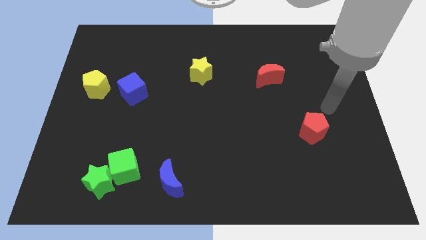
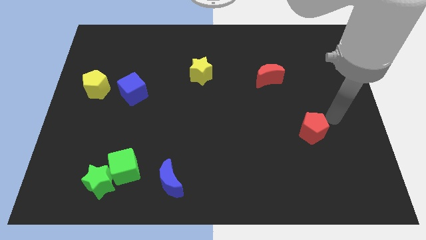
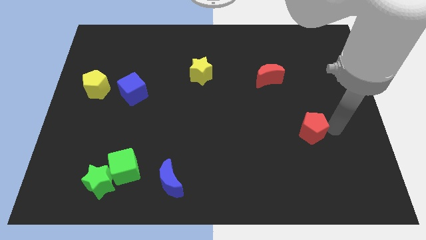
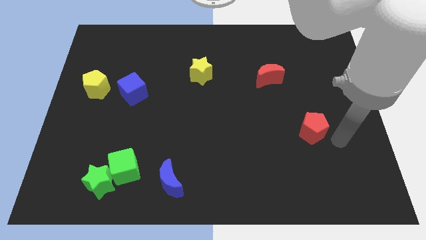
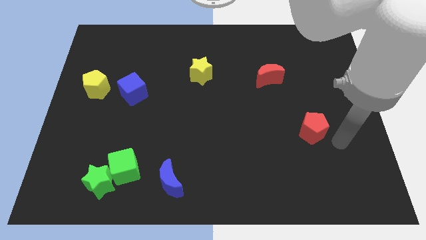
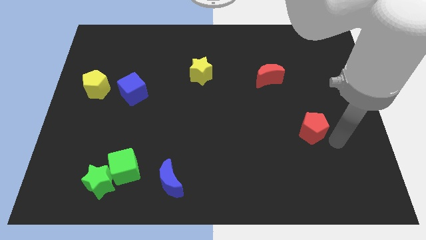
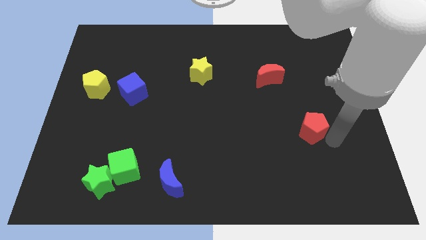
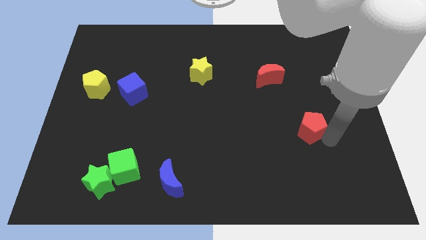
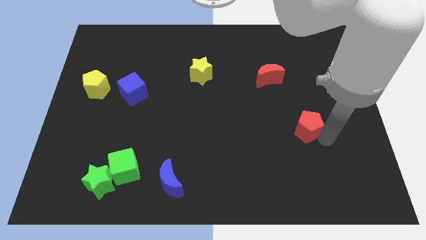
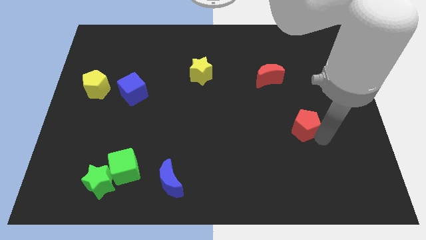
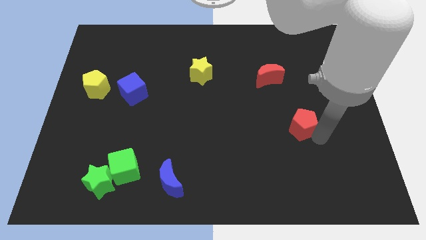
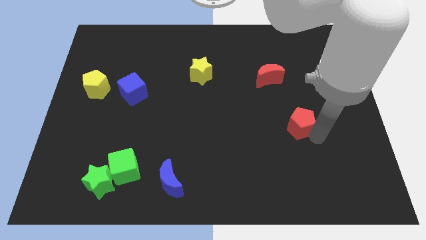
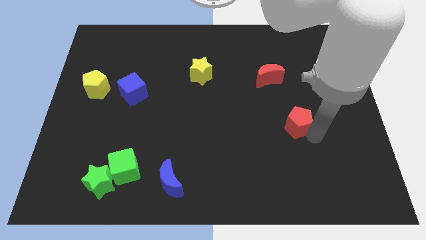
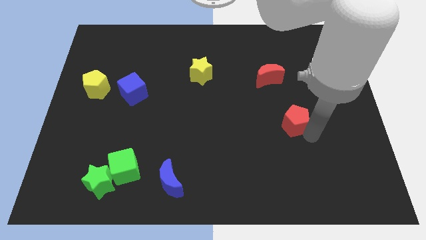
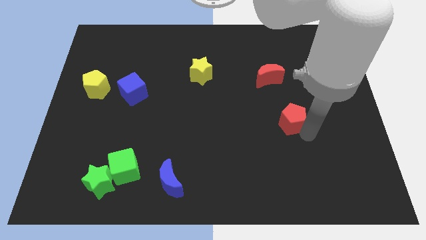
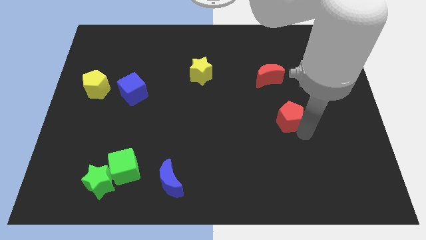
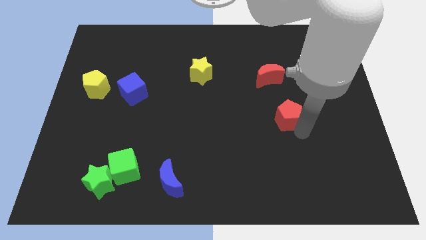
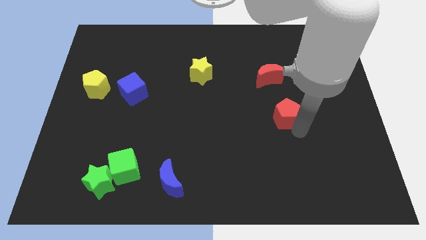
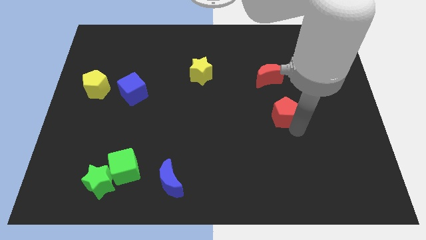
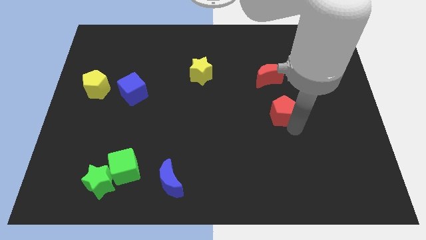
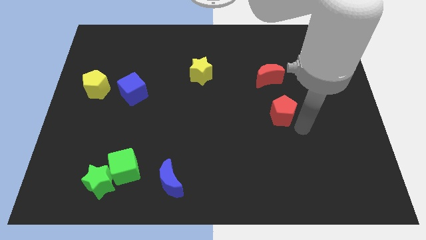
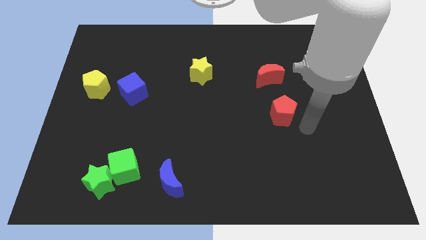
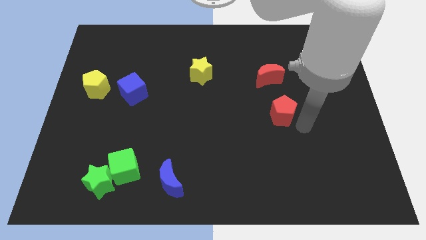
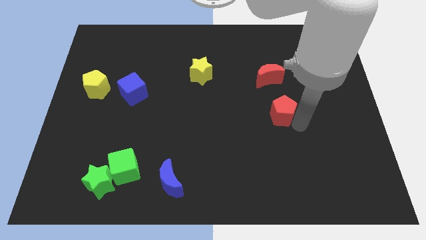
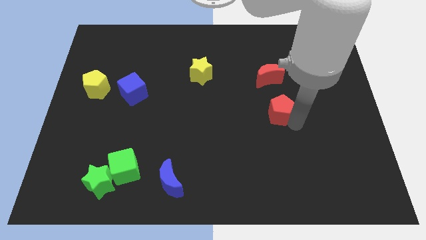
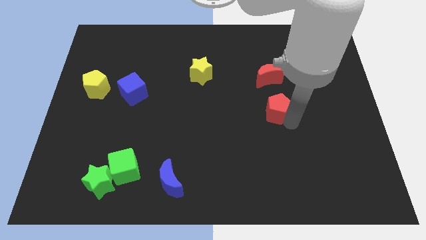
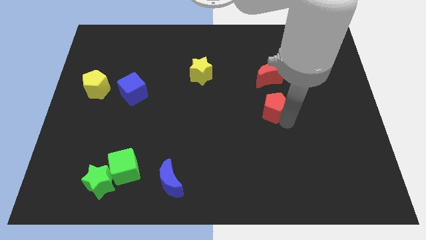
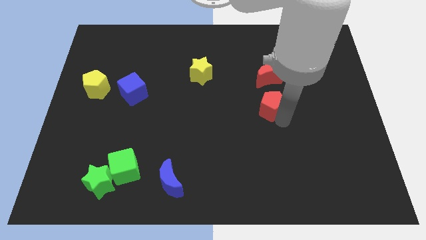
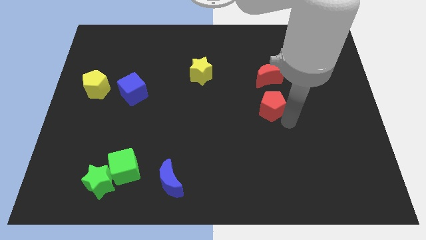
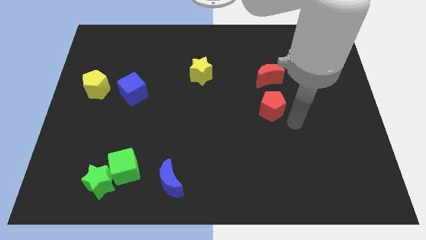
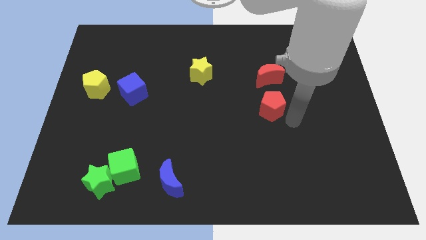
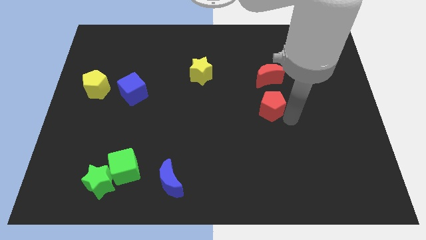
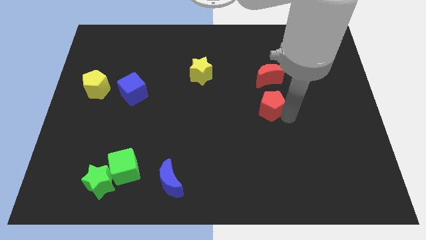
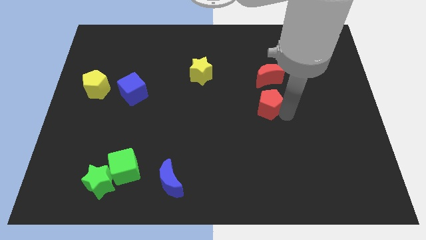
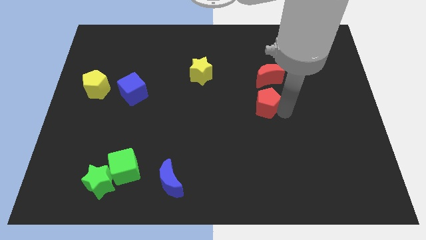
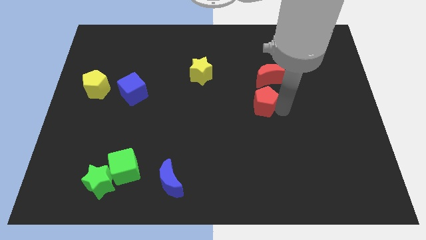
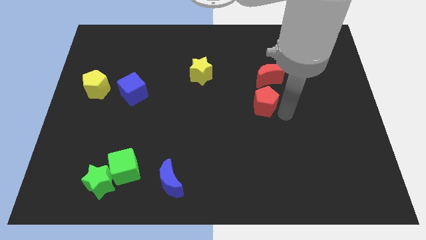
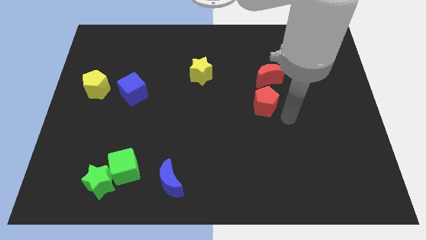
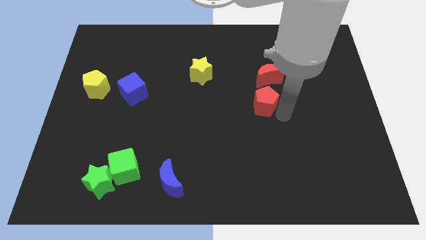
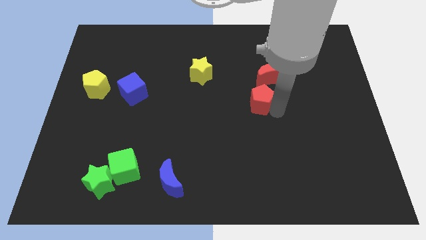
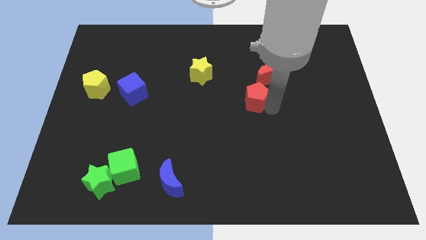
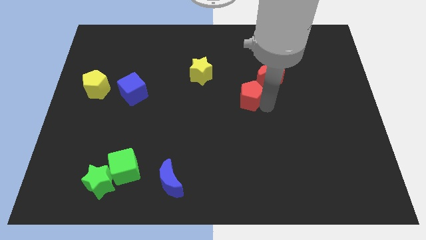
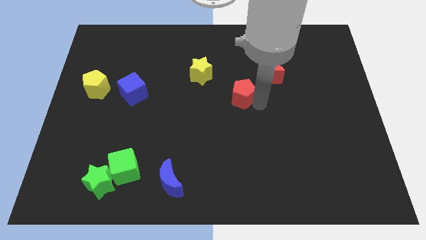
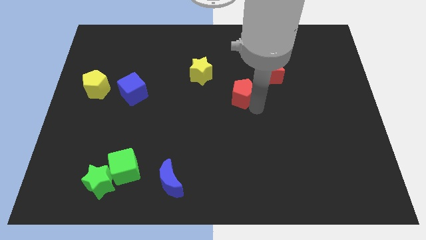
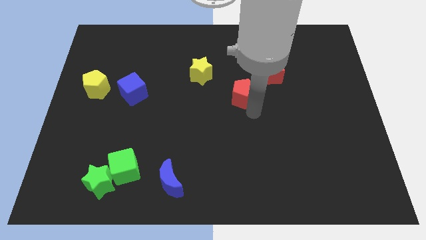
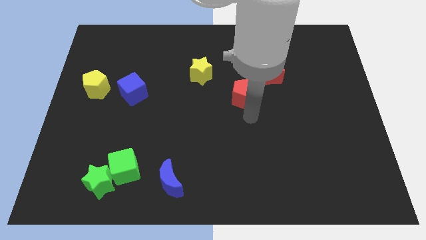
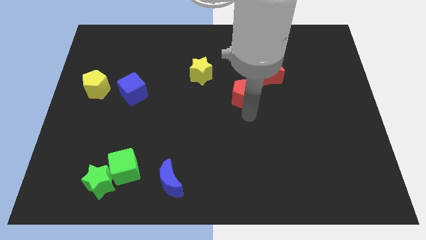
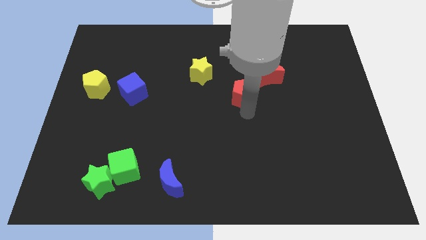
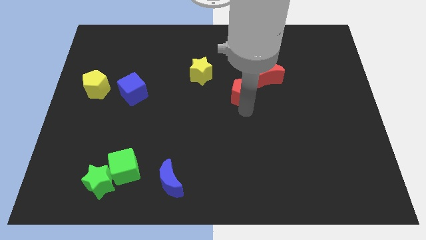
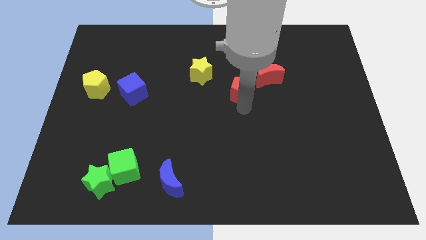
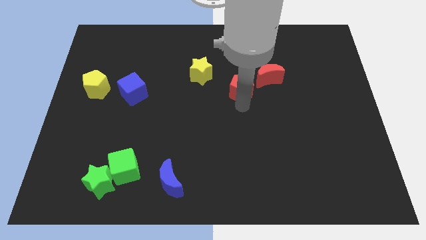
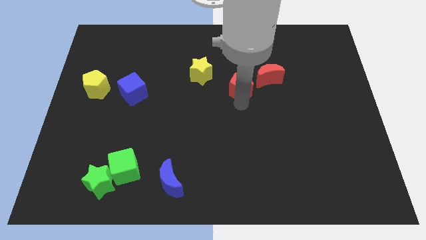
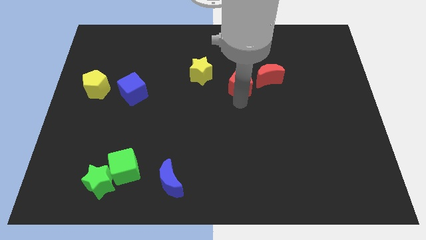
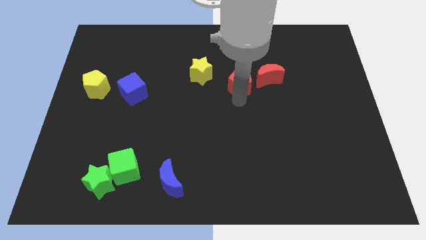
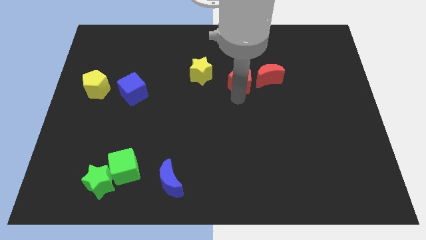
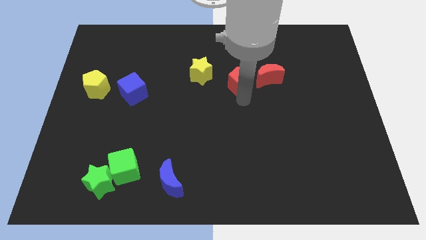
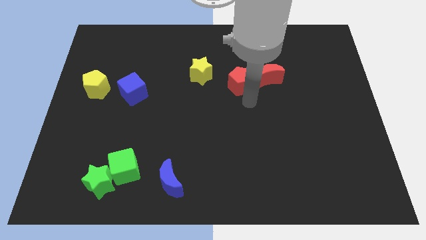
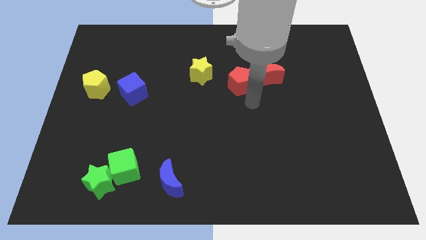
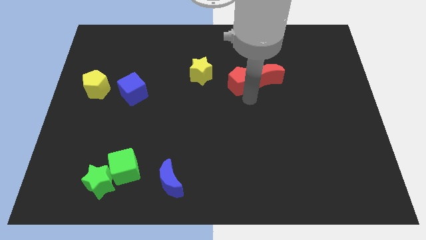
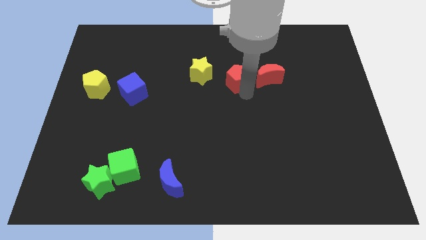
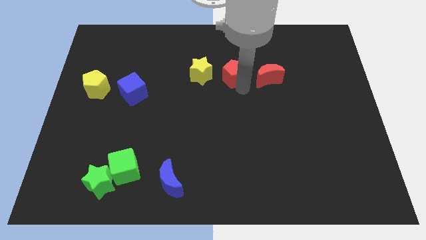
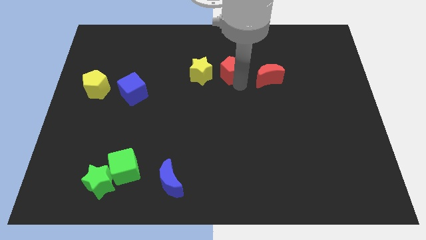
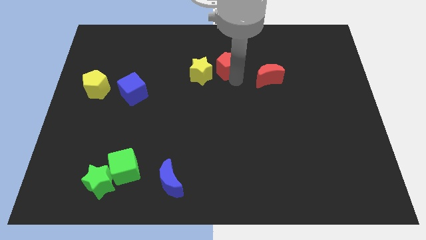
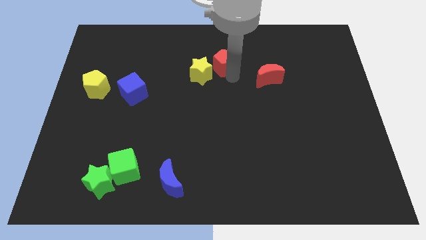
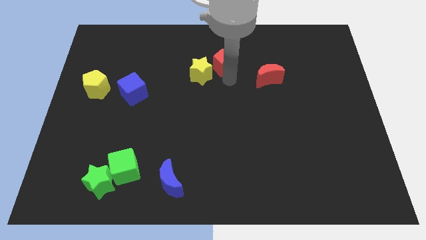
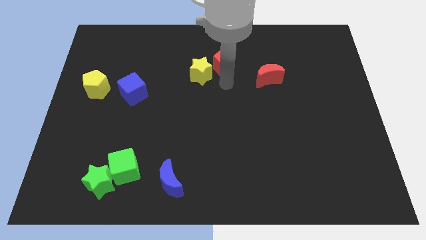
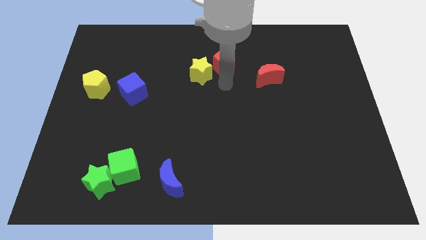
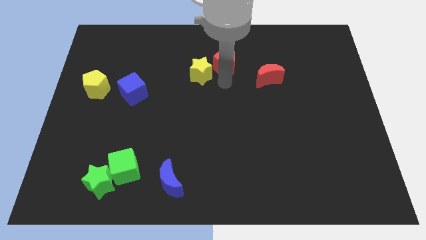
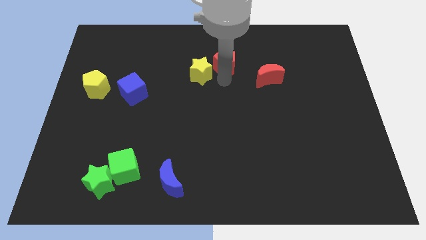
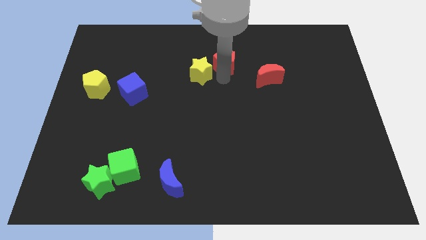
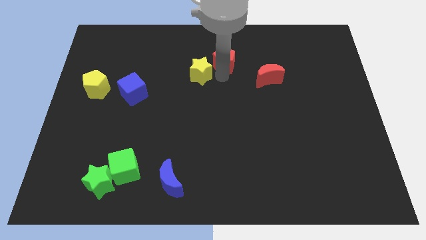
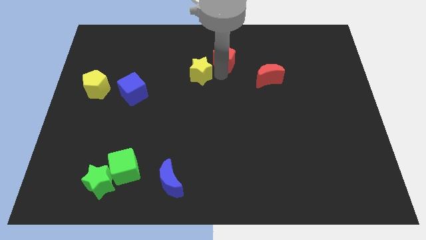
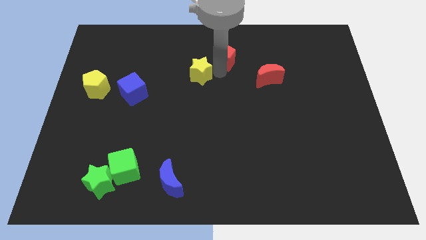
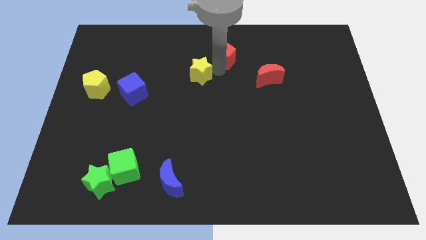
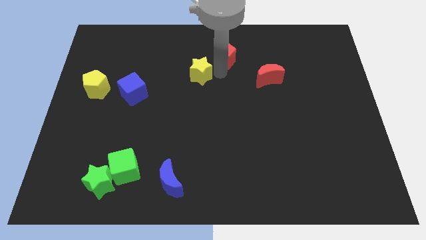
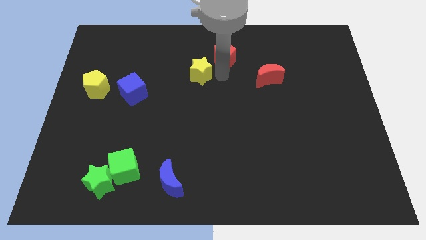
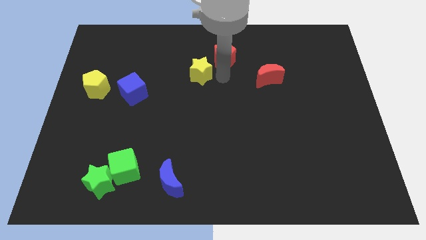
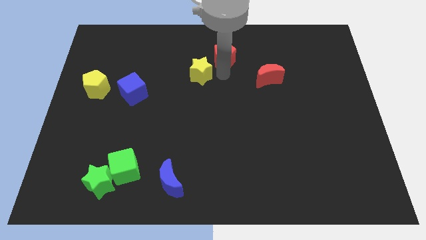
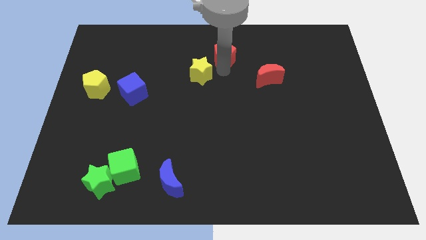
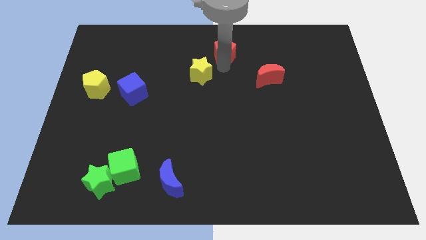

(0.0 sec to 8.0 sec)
push the red pentagon to the towards your base

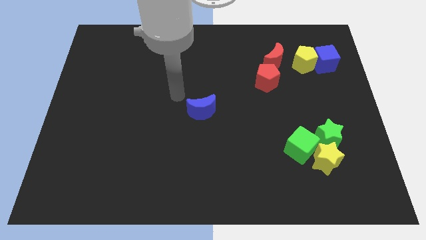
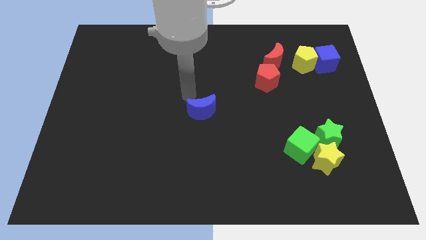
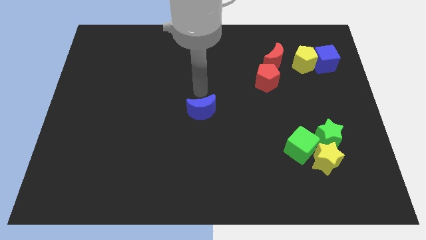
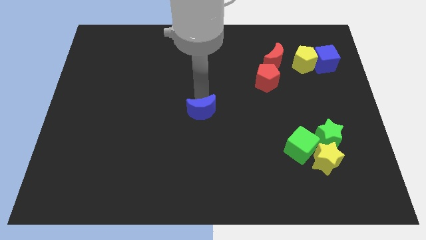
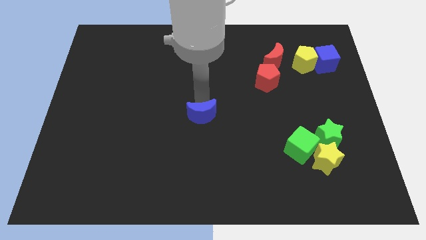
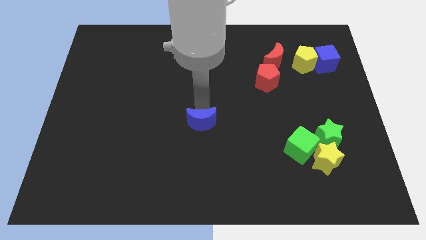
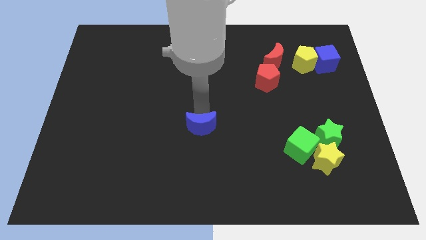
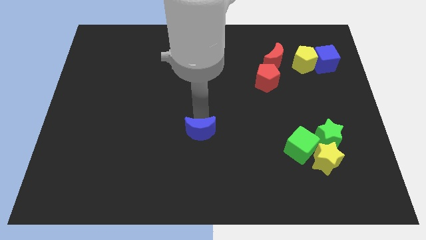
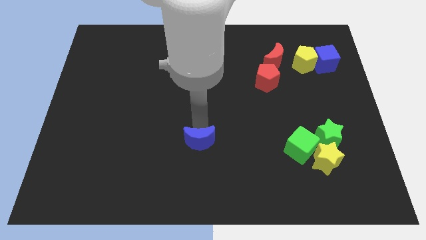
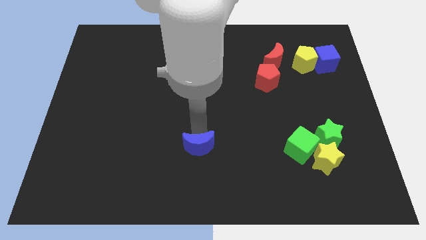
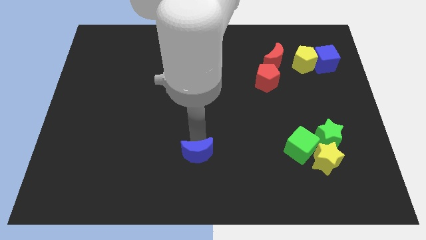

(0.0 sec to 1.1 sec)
move the blue moon to the bottom side
